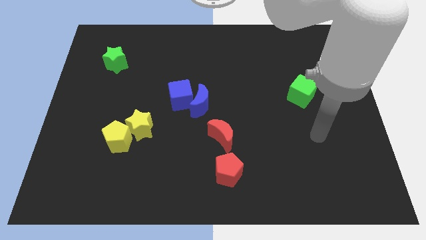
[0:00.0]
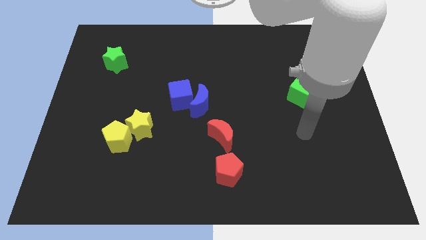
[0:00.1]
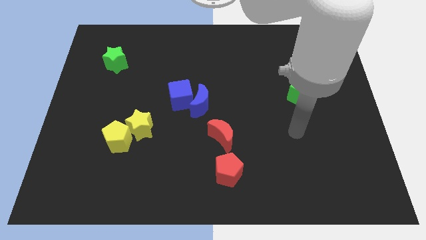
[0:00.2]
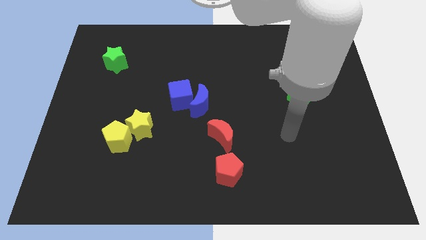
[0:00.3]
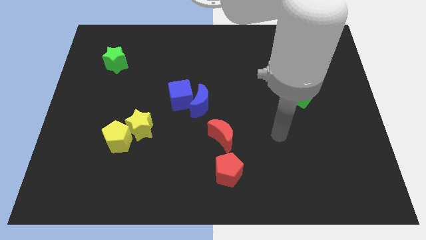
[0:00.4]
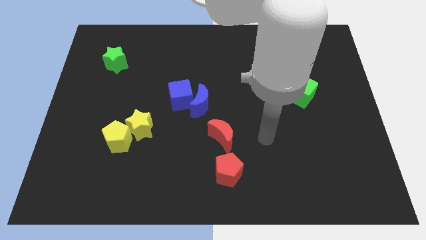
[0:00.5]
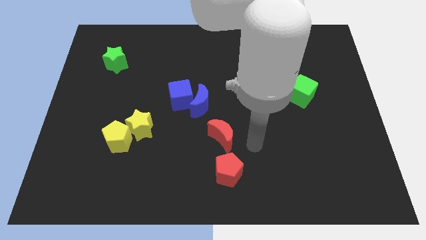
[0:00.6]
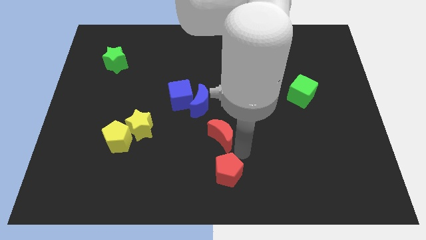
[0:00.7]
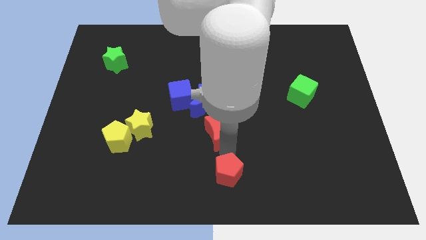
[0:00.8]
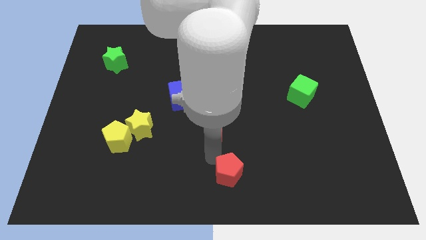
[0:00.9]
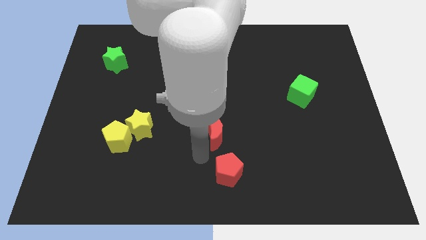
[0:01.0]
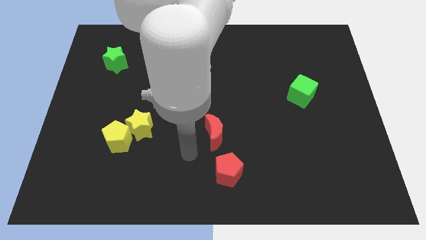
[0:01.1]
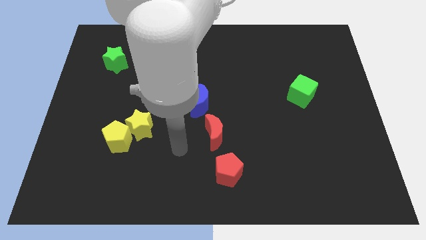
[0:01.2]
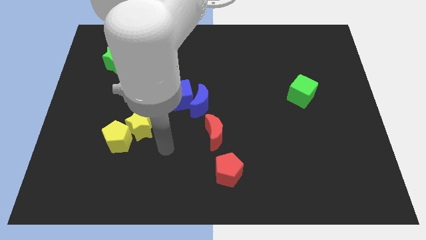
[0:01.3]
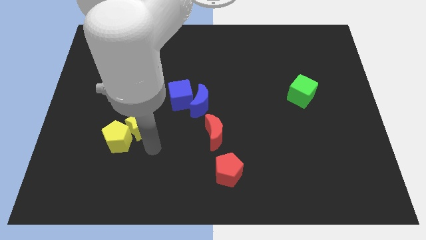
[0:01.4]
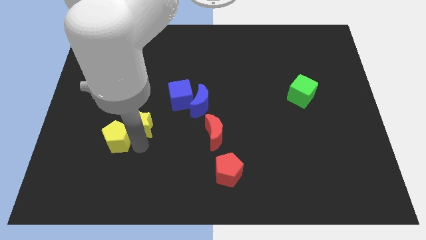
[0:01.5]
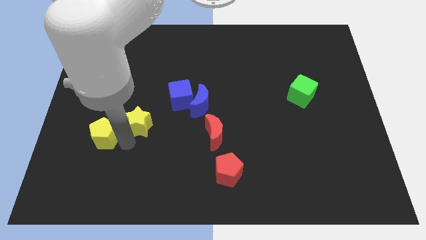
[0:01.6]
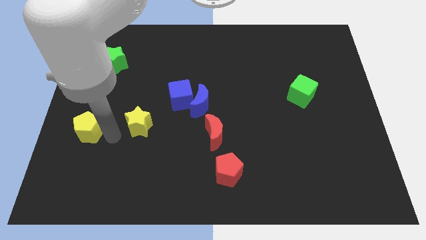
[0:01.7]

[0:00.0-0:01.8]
pull the yellow star apart from the yellow pentagon

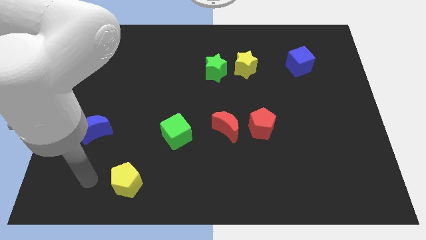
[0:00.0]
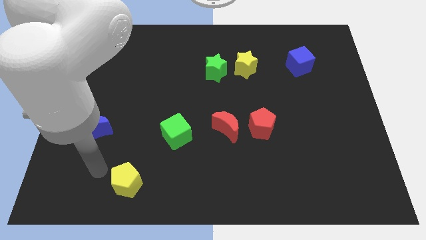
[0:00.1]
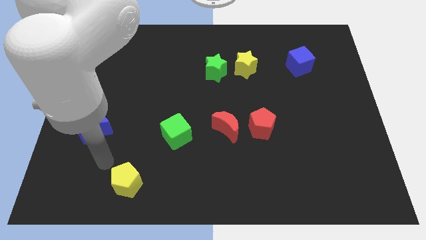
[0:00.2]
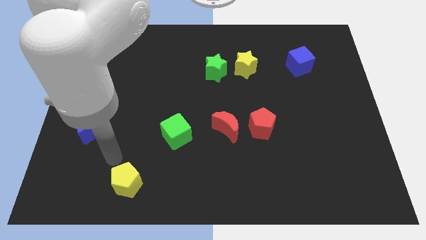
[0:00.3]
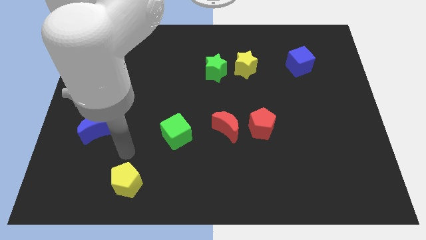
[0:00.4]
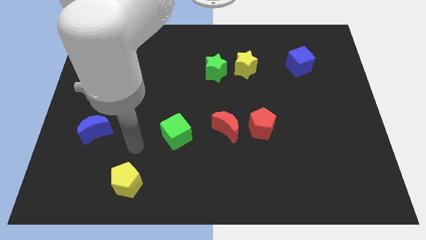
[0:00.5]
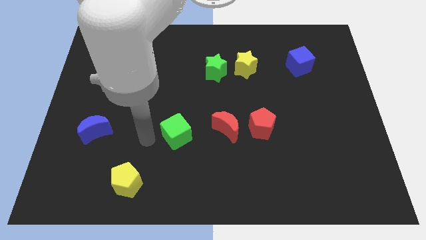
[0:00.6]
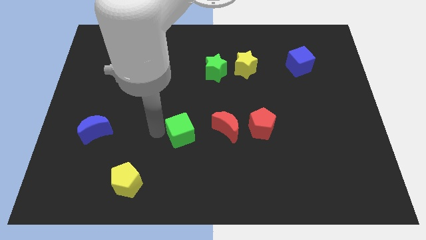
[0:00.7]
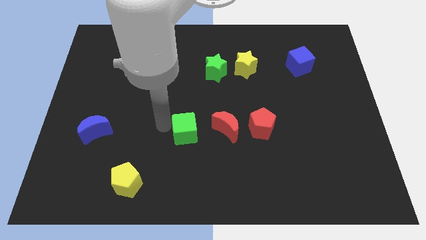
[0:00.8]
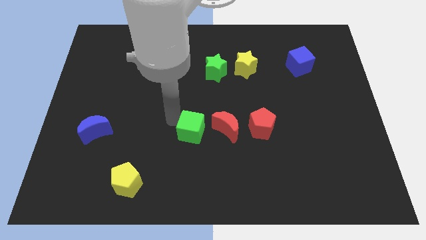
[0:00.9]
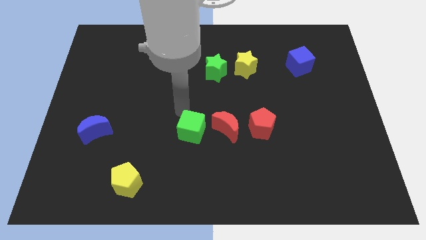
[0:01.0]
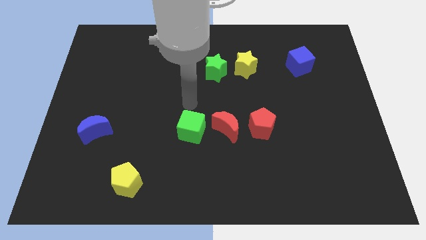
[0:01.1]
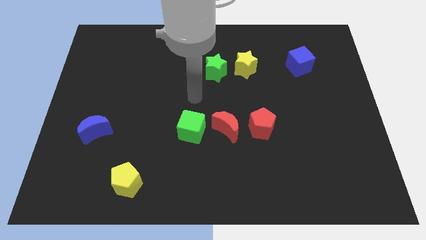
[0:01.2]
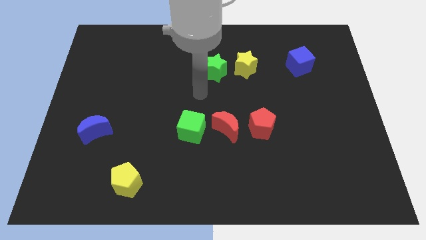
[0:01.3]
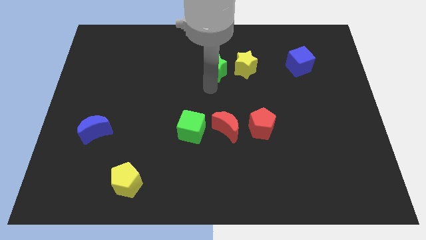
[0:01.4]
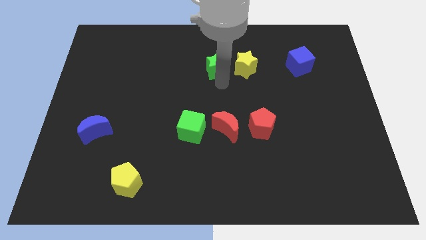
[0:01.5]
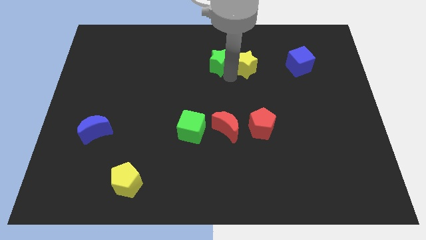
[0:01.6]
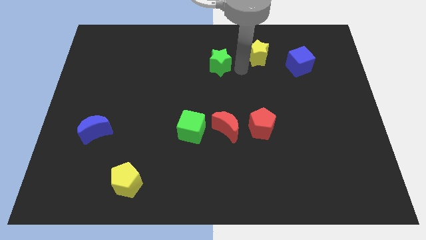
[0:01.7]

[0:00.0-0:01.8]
separate the green star from the yellow star

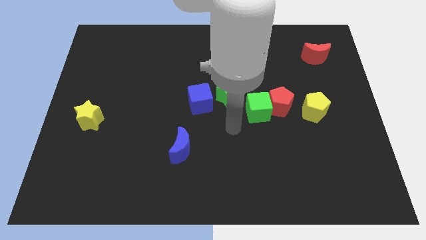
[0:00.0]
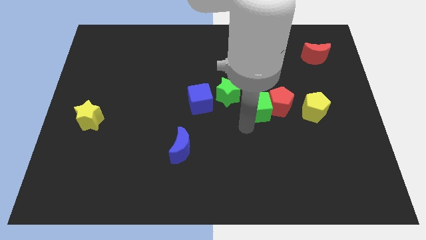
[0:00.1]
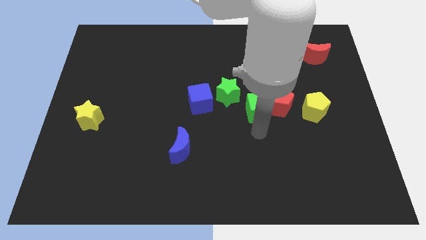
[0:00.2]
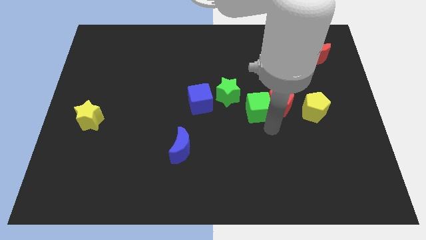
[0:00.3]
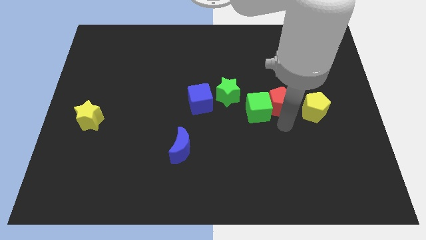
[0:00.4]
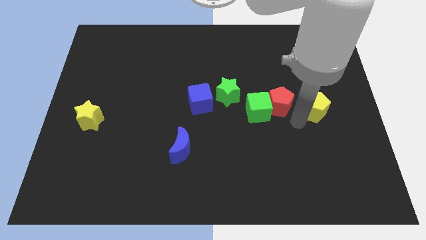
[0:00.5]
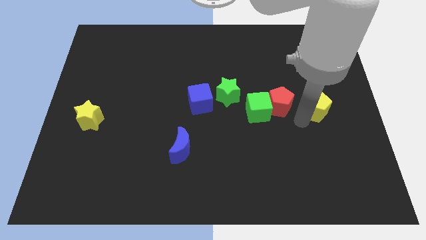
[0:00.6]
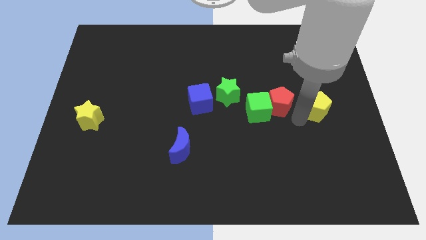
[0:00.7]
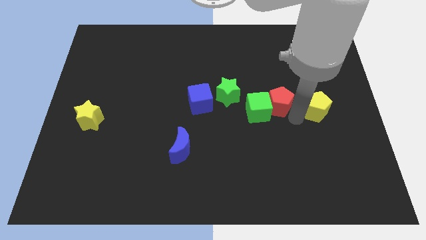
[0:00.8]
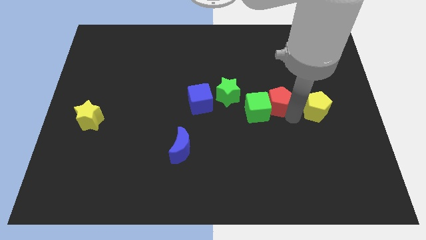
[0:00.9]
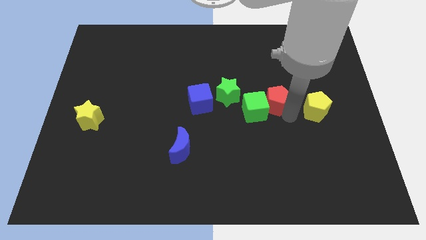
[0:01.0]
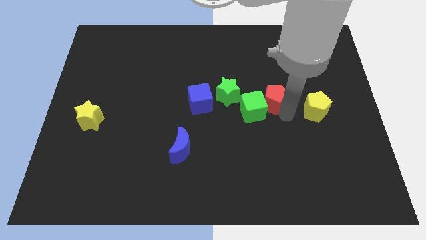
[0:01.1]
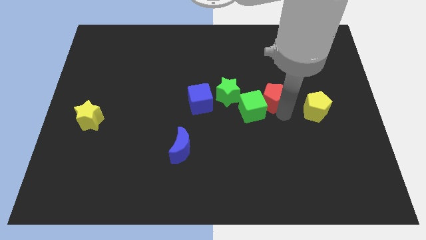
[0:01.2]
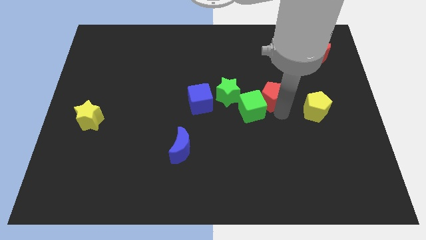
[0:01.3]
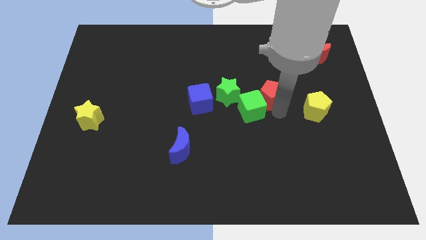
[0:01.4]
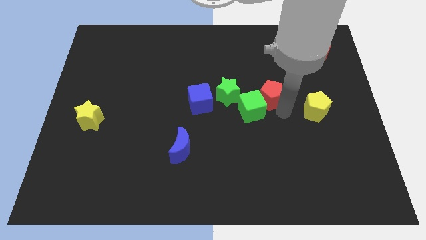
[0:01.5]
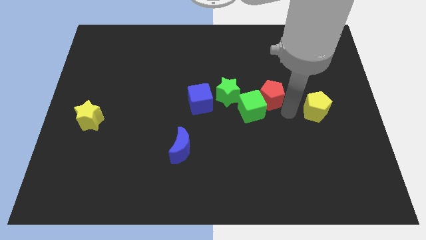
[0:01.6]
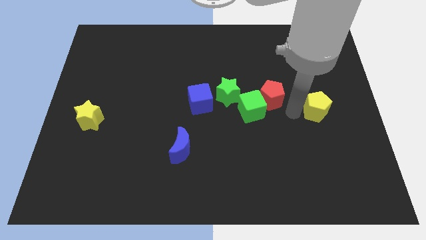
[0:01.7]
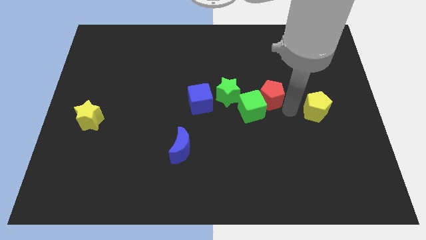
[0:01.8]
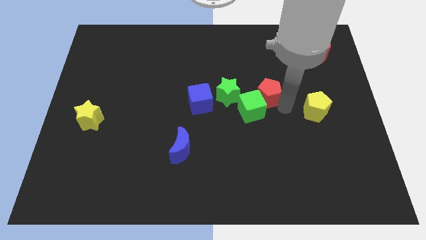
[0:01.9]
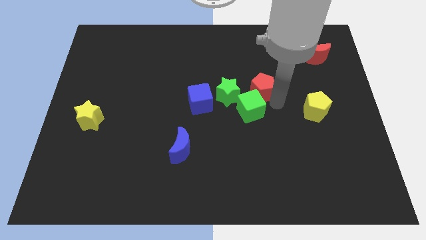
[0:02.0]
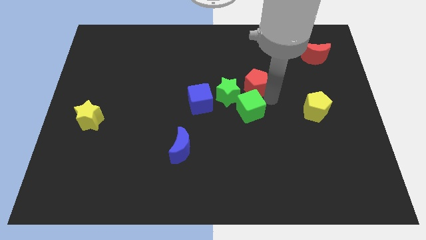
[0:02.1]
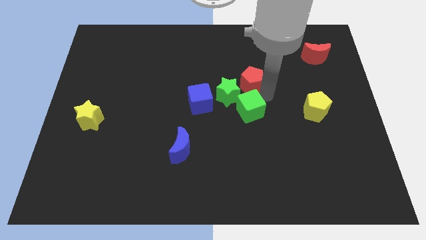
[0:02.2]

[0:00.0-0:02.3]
pull the red pentagon apart from the green cube and yellow pentagon

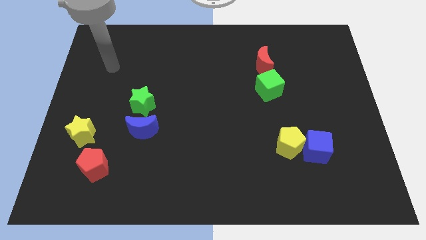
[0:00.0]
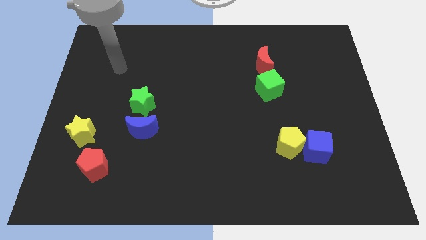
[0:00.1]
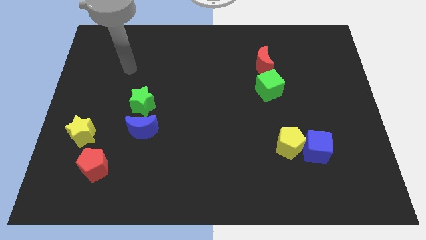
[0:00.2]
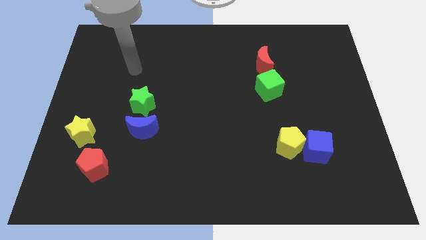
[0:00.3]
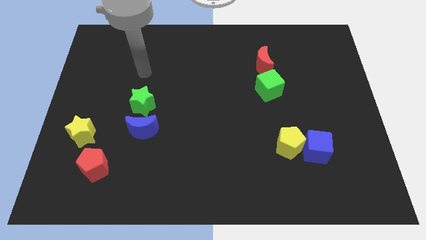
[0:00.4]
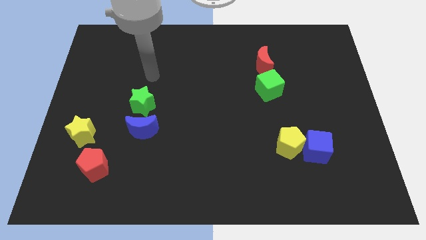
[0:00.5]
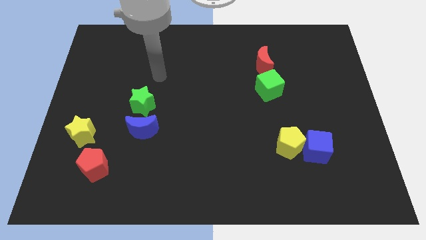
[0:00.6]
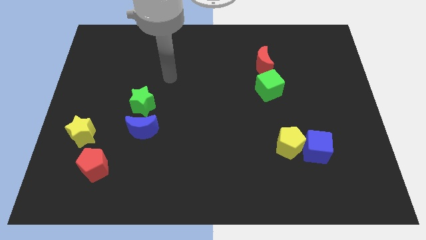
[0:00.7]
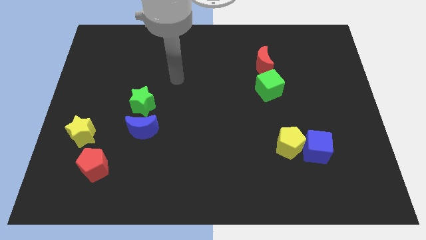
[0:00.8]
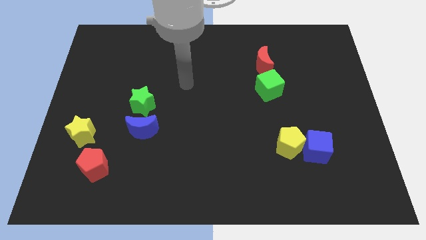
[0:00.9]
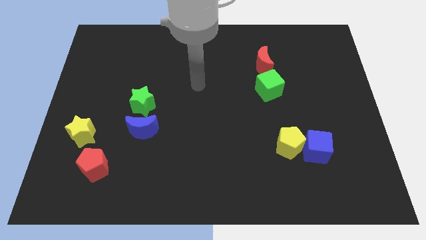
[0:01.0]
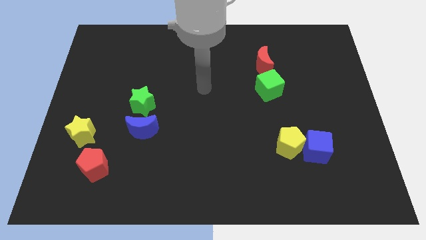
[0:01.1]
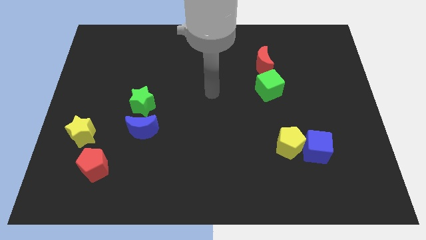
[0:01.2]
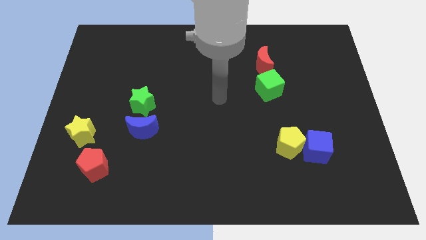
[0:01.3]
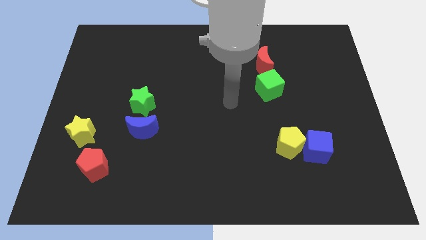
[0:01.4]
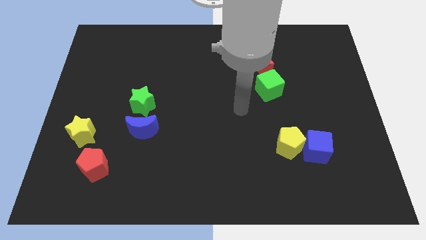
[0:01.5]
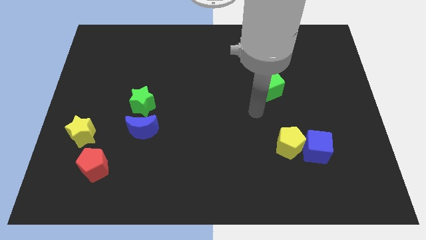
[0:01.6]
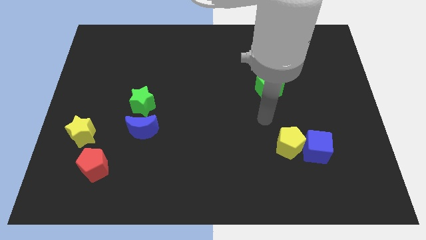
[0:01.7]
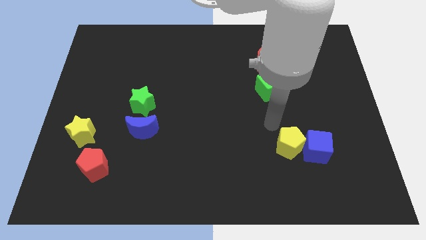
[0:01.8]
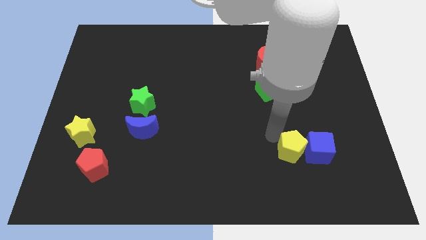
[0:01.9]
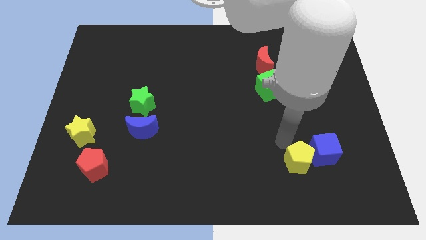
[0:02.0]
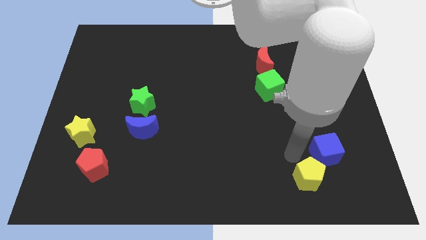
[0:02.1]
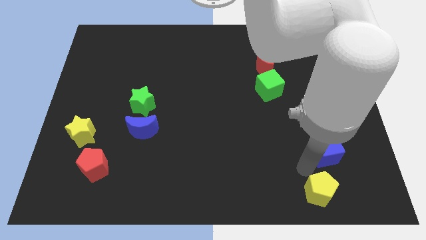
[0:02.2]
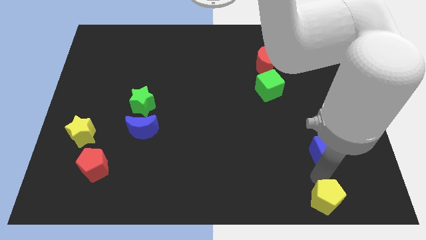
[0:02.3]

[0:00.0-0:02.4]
pull the blue cube apart from the yellow pentagon

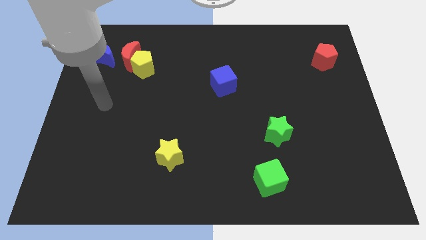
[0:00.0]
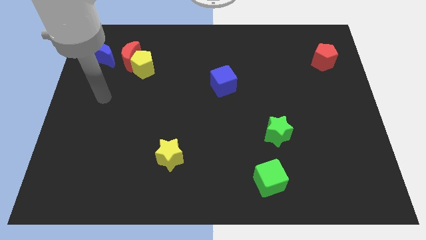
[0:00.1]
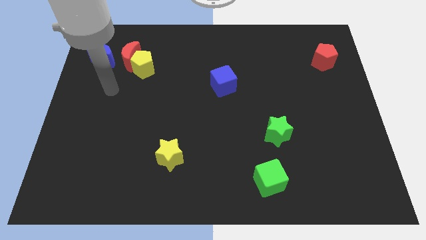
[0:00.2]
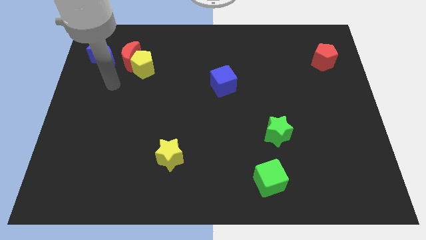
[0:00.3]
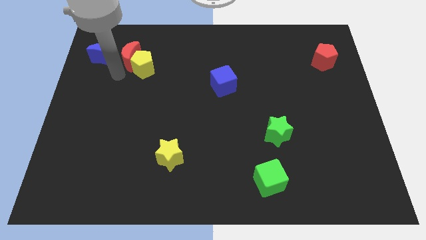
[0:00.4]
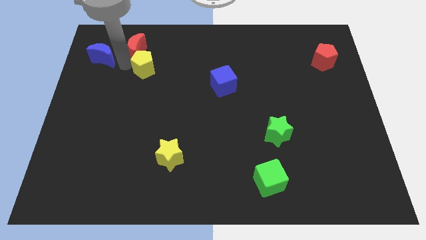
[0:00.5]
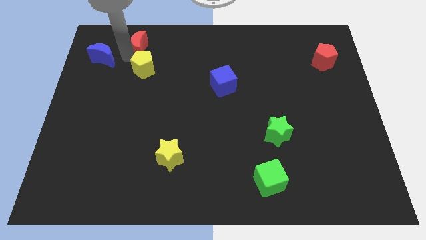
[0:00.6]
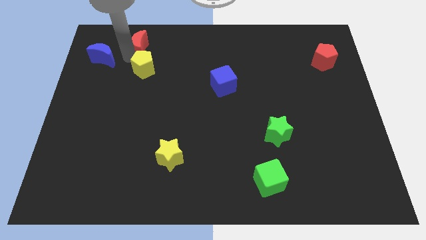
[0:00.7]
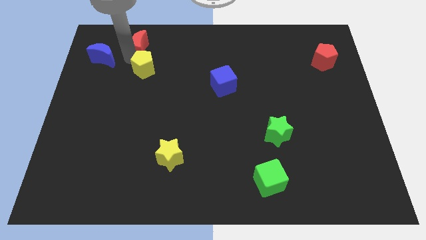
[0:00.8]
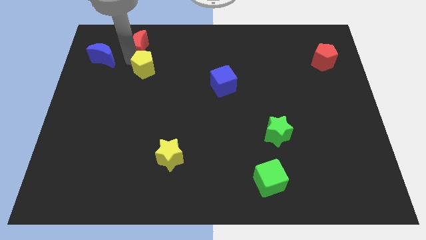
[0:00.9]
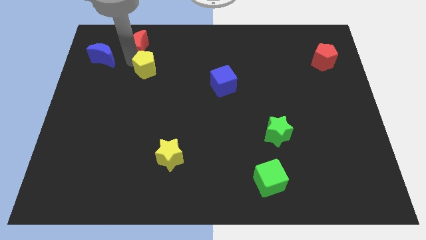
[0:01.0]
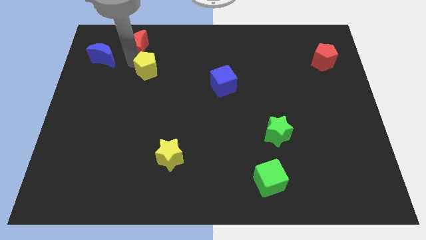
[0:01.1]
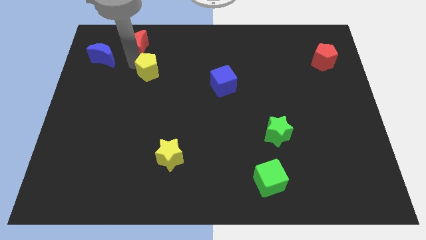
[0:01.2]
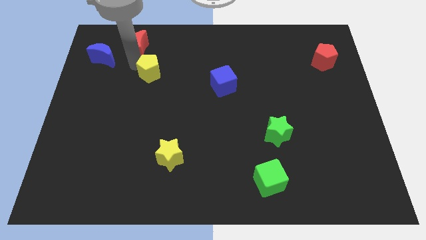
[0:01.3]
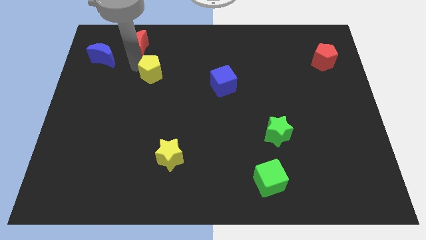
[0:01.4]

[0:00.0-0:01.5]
move the yellow pentagon away from the red moon
